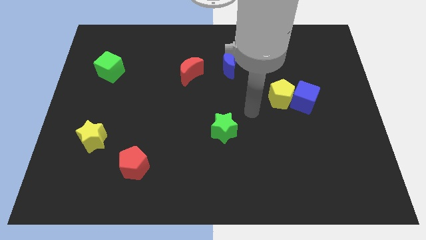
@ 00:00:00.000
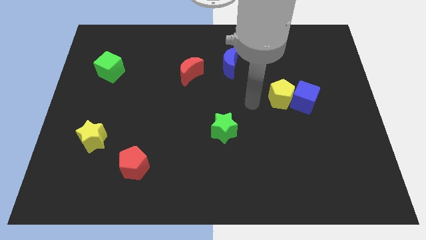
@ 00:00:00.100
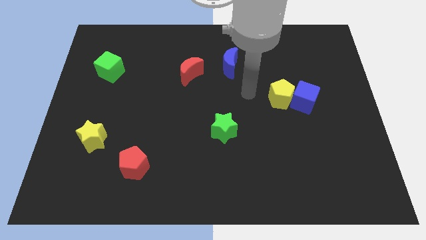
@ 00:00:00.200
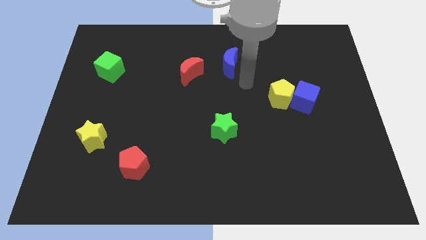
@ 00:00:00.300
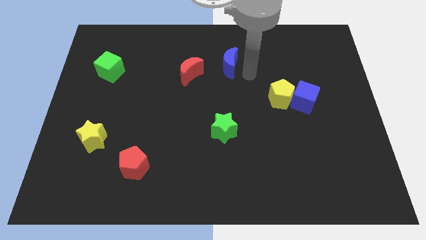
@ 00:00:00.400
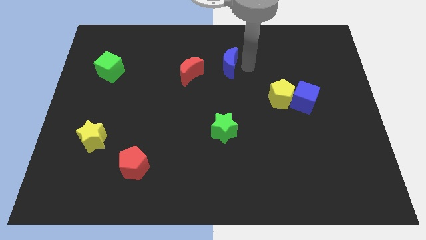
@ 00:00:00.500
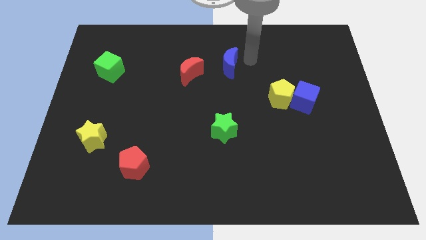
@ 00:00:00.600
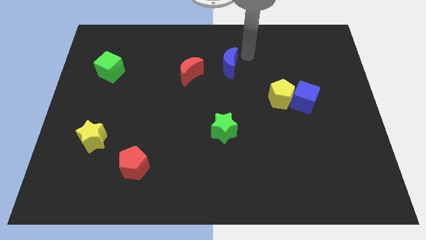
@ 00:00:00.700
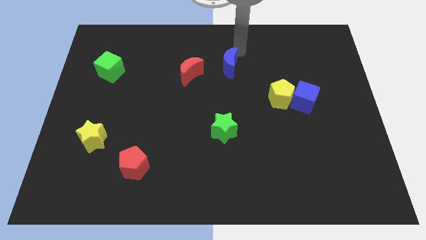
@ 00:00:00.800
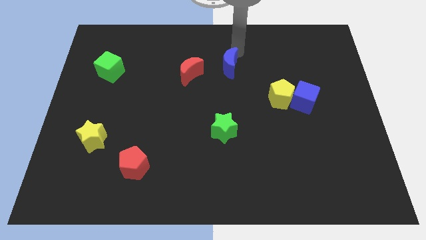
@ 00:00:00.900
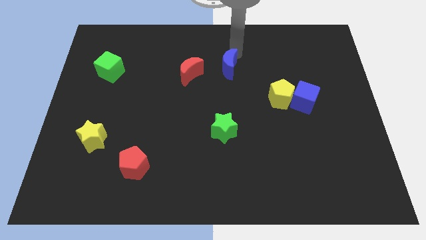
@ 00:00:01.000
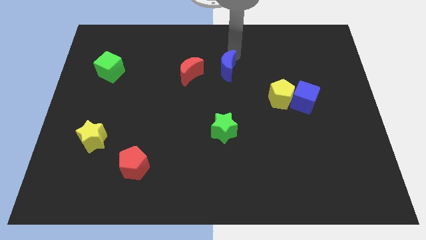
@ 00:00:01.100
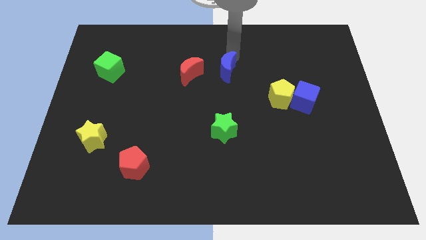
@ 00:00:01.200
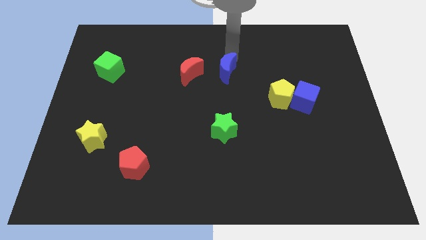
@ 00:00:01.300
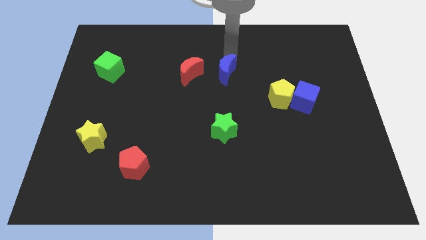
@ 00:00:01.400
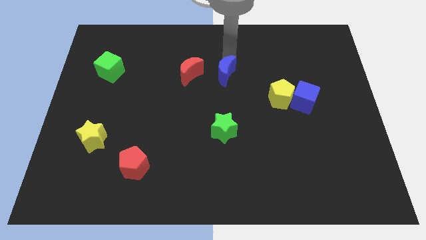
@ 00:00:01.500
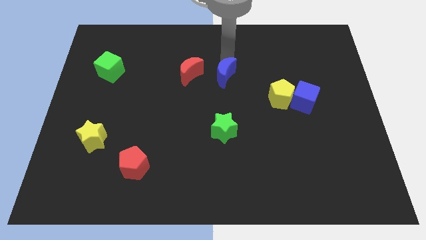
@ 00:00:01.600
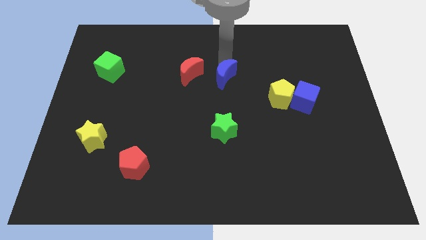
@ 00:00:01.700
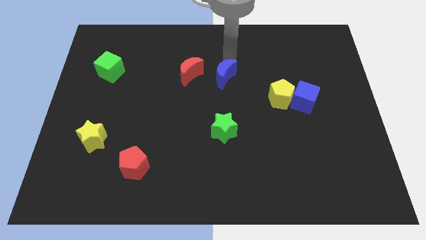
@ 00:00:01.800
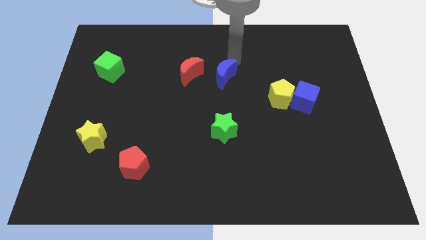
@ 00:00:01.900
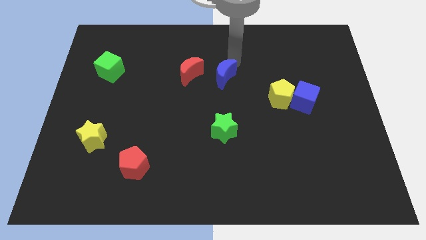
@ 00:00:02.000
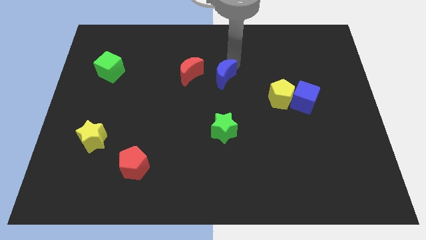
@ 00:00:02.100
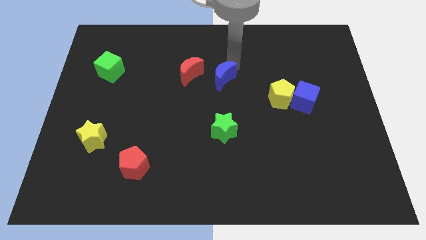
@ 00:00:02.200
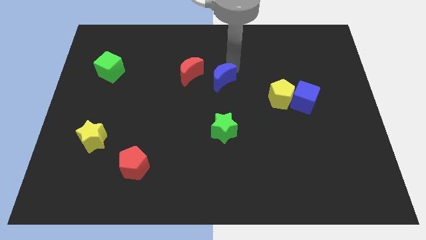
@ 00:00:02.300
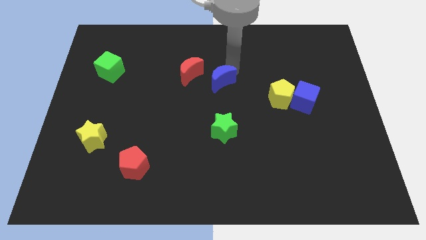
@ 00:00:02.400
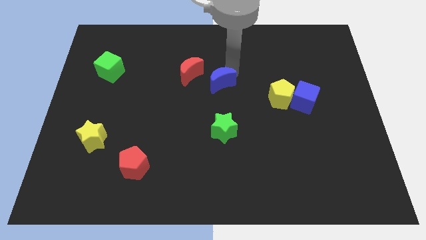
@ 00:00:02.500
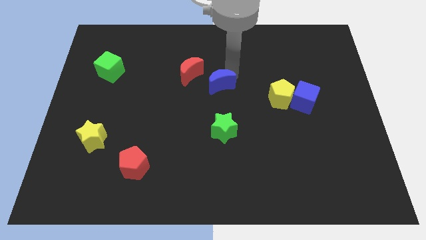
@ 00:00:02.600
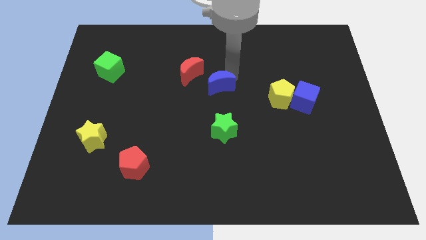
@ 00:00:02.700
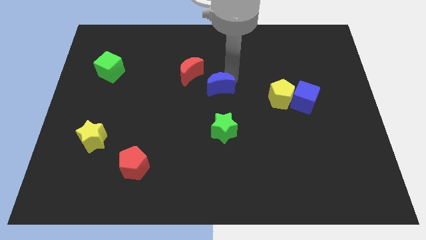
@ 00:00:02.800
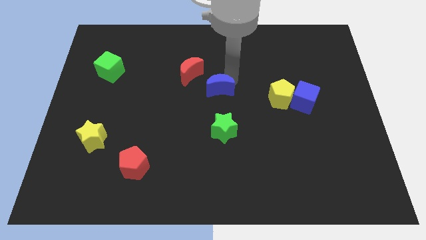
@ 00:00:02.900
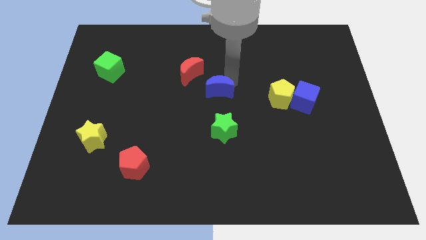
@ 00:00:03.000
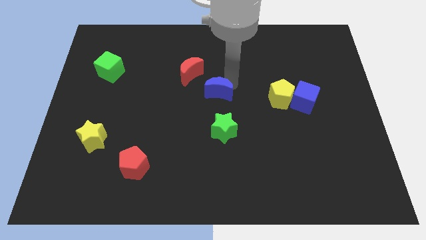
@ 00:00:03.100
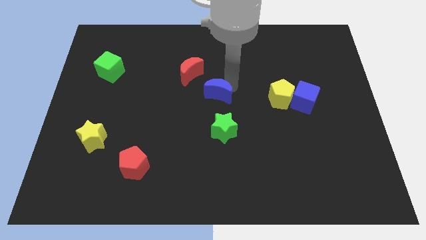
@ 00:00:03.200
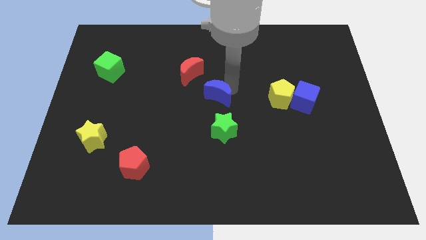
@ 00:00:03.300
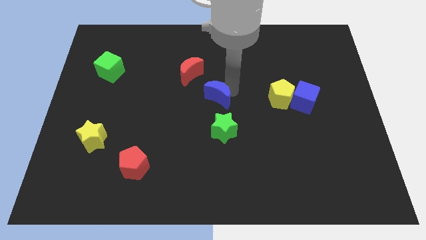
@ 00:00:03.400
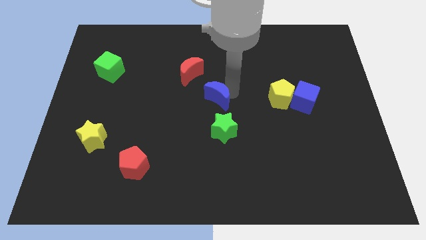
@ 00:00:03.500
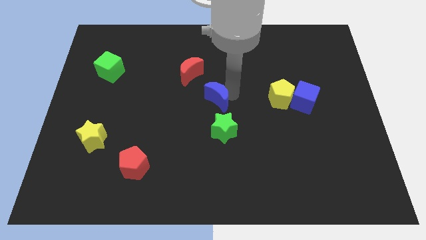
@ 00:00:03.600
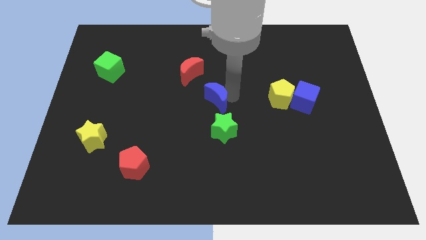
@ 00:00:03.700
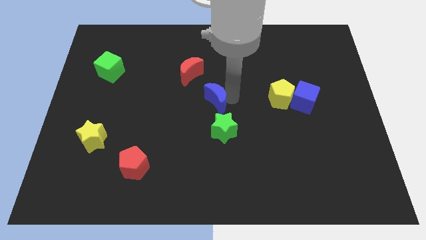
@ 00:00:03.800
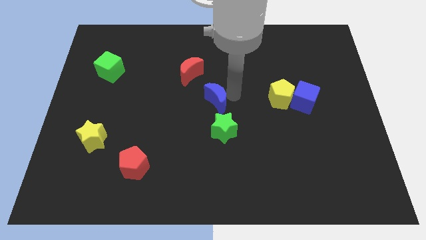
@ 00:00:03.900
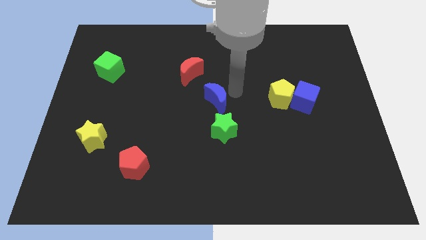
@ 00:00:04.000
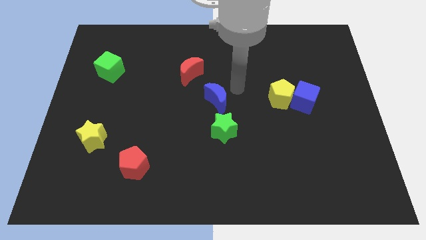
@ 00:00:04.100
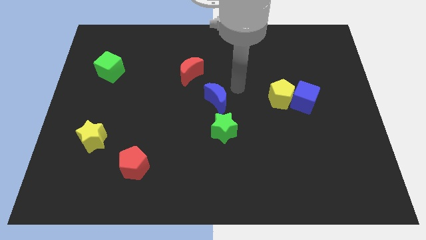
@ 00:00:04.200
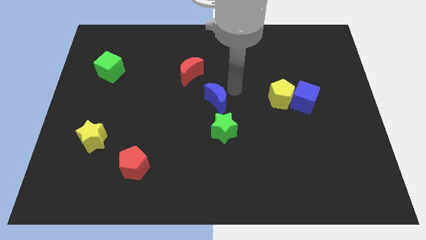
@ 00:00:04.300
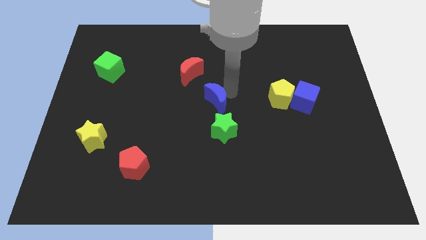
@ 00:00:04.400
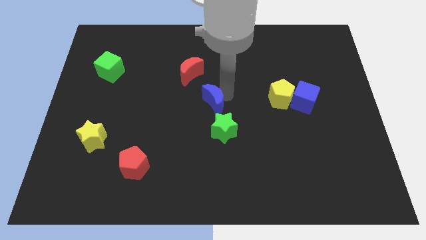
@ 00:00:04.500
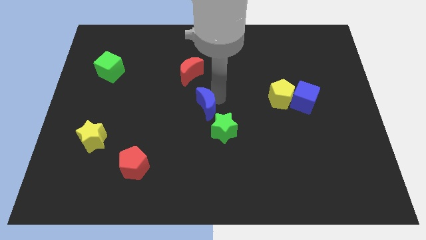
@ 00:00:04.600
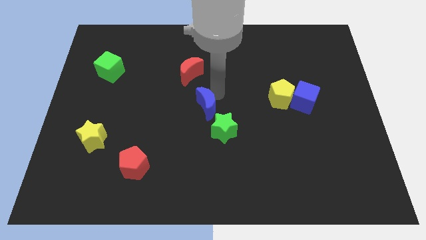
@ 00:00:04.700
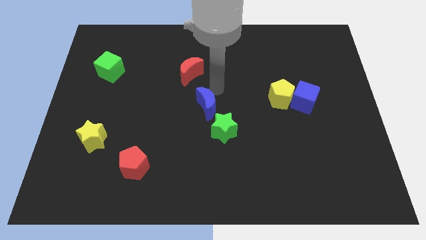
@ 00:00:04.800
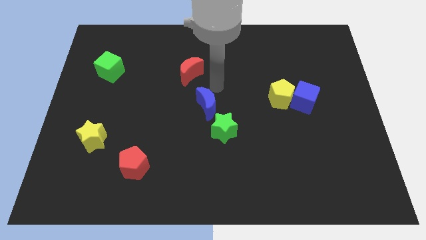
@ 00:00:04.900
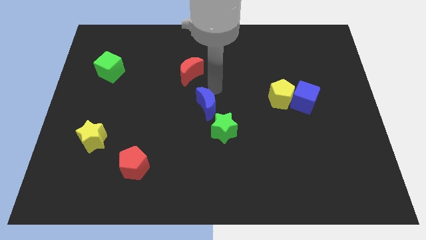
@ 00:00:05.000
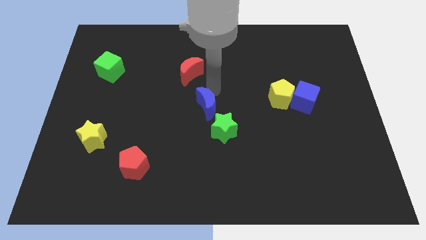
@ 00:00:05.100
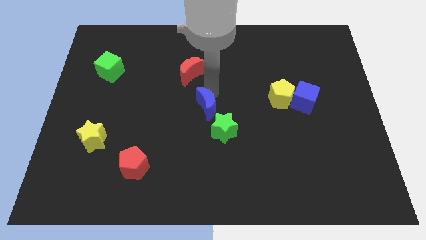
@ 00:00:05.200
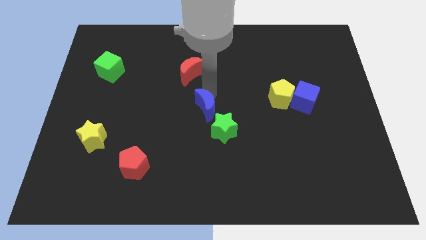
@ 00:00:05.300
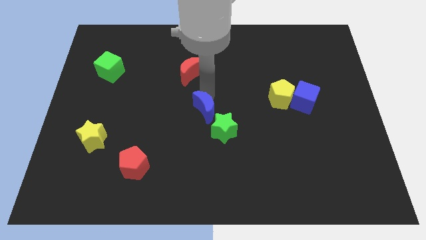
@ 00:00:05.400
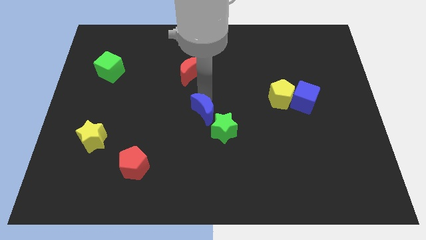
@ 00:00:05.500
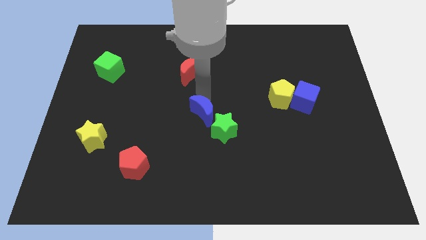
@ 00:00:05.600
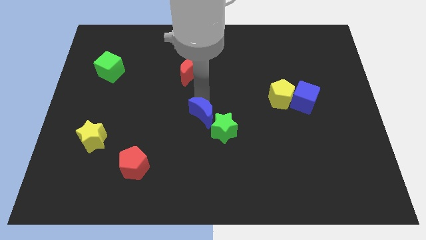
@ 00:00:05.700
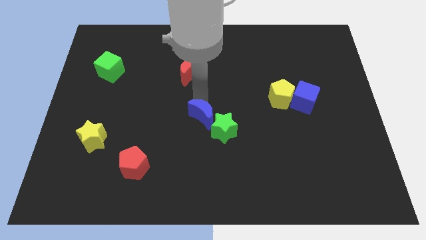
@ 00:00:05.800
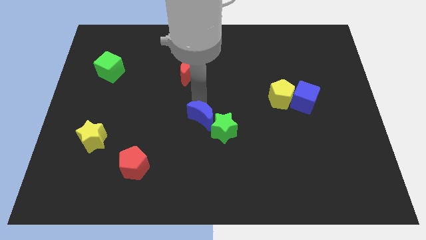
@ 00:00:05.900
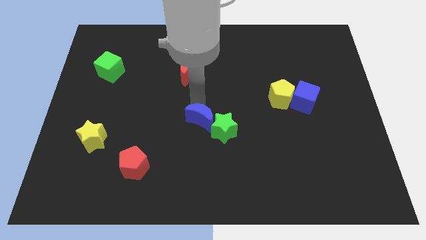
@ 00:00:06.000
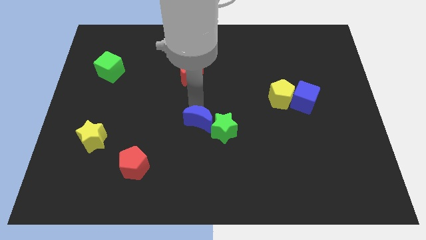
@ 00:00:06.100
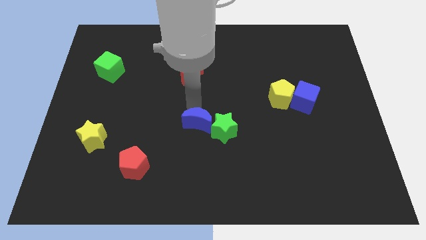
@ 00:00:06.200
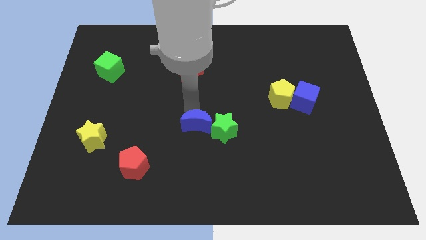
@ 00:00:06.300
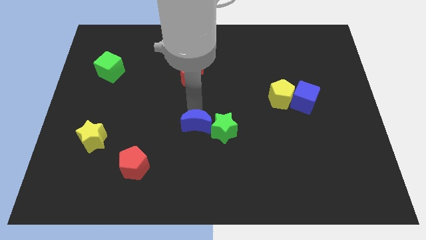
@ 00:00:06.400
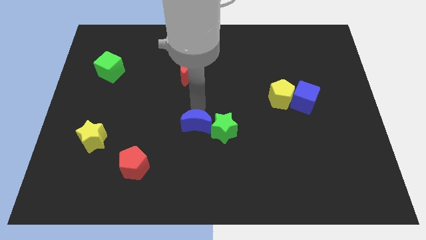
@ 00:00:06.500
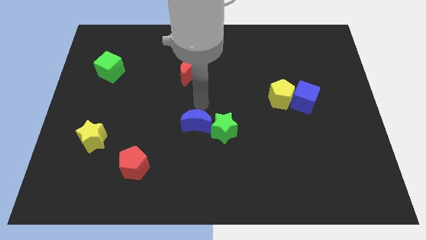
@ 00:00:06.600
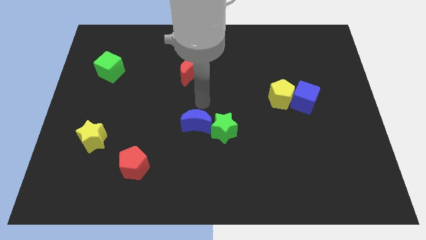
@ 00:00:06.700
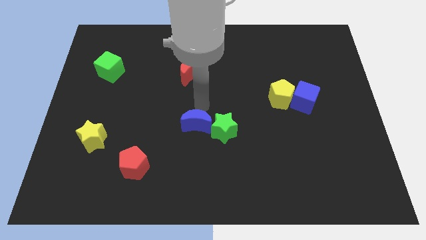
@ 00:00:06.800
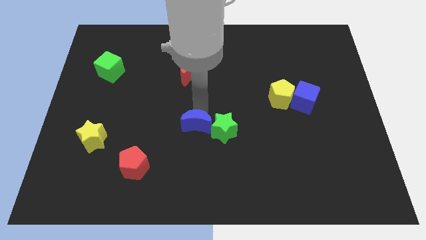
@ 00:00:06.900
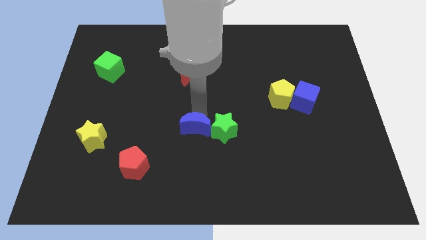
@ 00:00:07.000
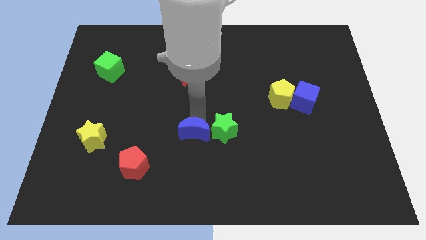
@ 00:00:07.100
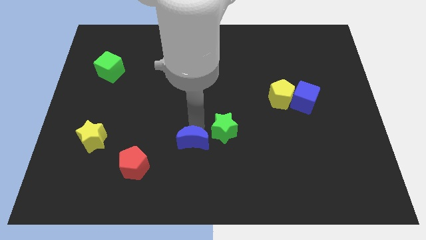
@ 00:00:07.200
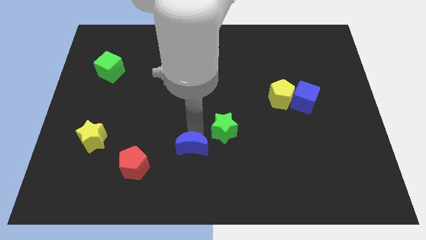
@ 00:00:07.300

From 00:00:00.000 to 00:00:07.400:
move the blue moon to the right of the red pentagon
